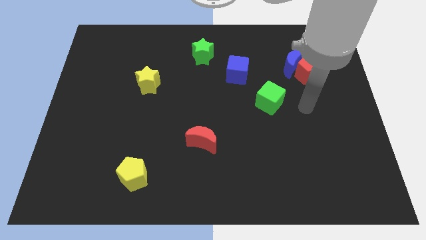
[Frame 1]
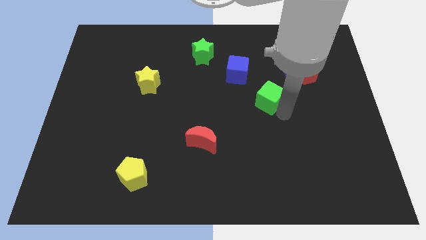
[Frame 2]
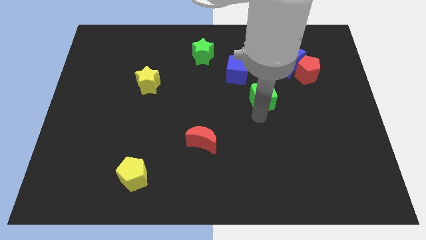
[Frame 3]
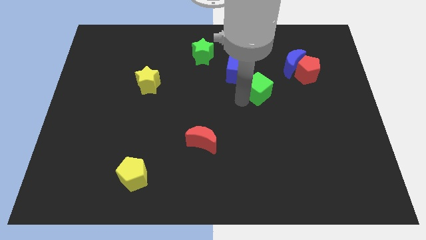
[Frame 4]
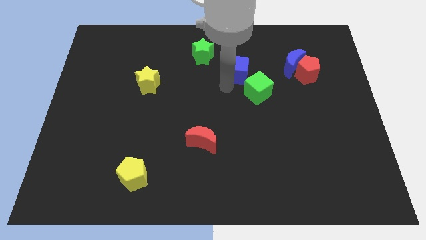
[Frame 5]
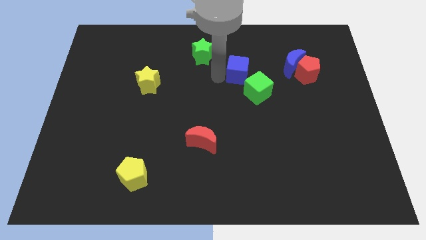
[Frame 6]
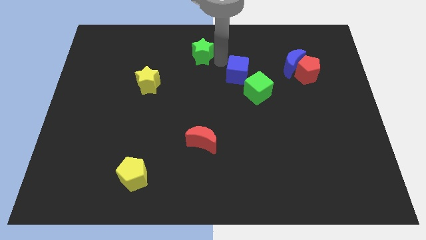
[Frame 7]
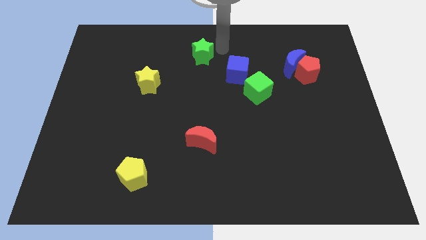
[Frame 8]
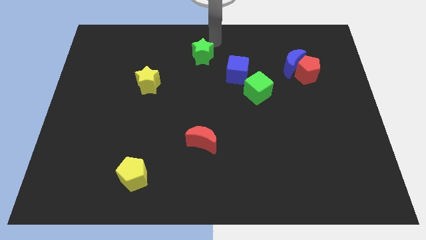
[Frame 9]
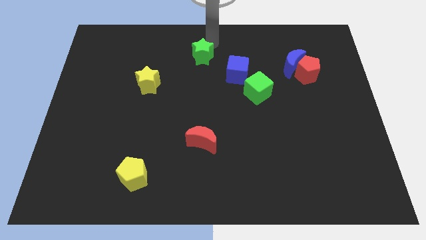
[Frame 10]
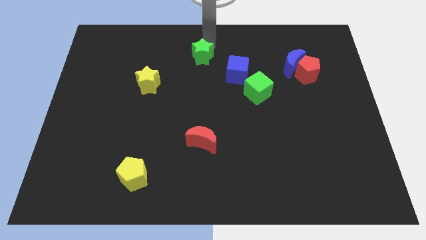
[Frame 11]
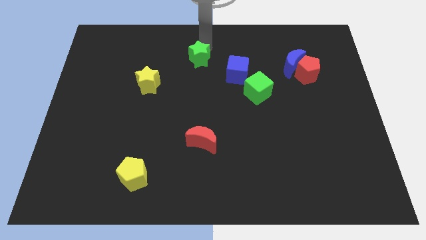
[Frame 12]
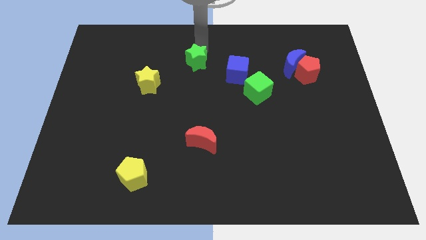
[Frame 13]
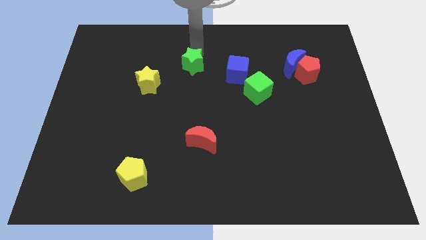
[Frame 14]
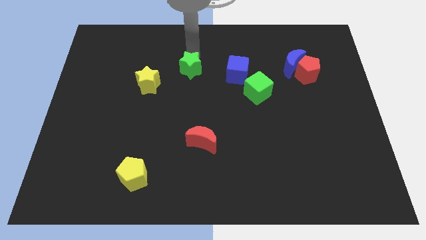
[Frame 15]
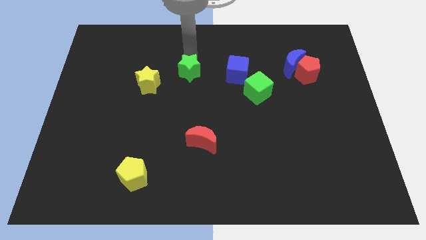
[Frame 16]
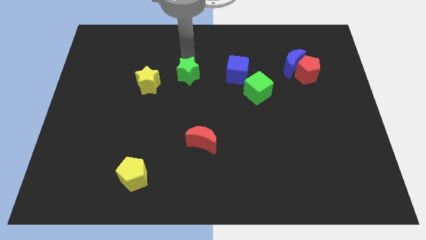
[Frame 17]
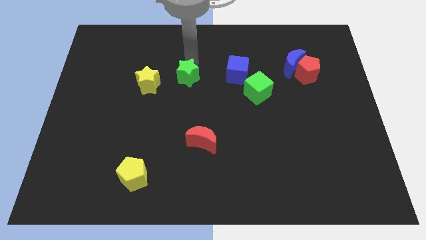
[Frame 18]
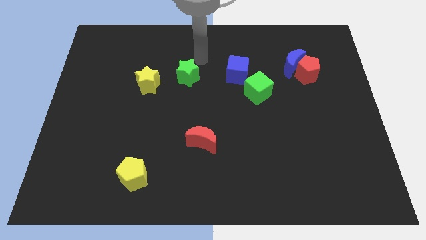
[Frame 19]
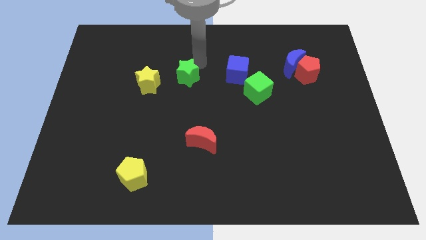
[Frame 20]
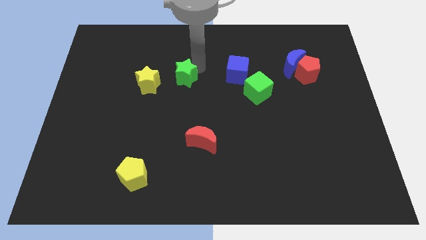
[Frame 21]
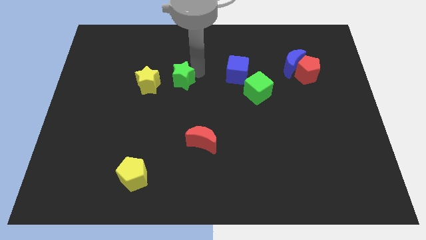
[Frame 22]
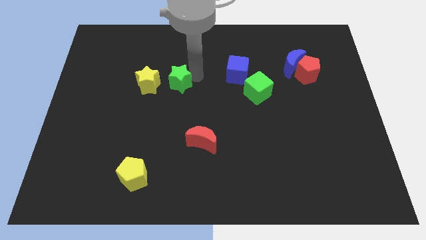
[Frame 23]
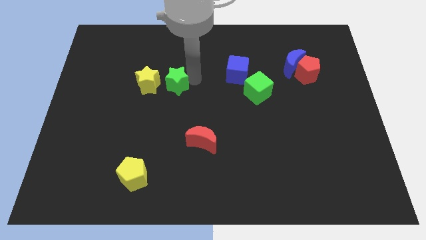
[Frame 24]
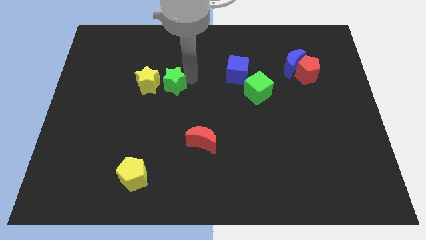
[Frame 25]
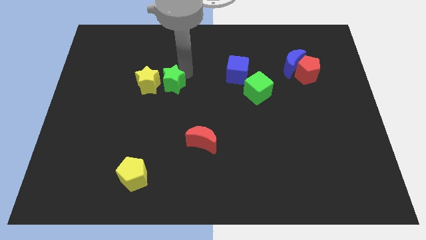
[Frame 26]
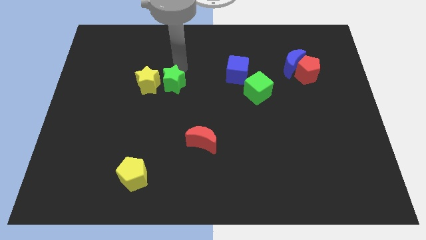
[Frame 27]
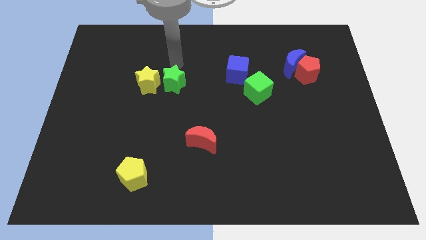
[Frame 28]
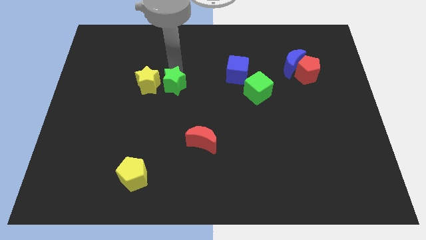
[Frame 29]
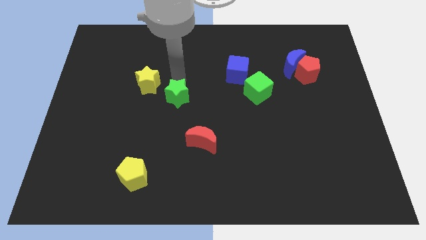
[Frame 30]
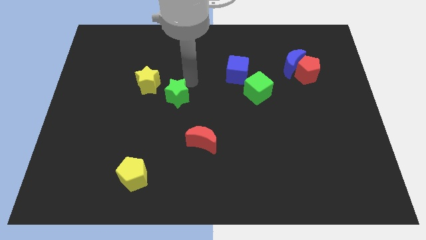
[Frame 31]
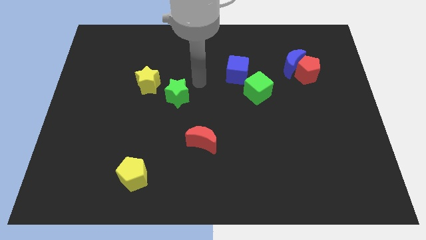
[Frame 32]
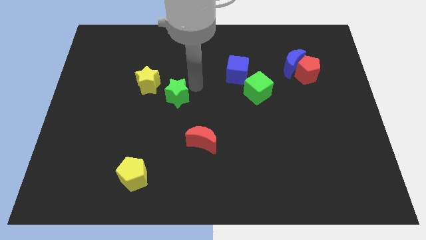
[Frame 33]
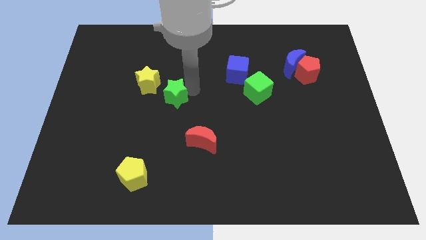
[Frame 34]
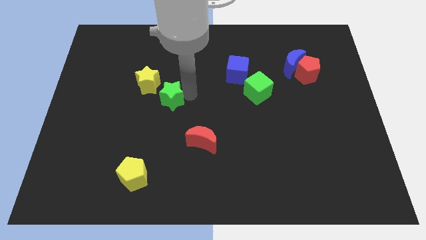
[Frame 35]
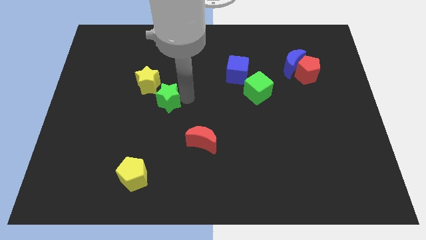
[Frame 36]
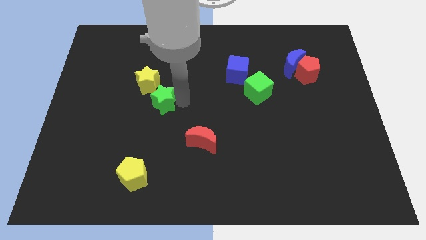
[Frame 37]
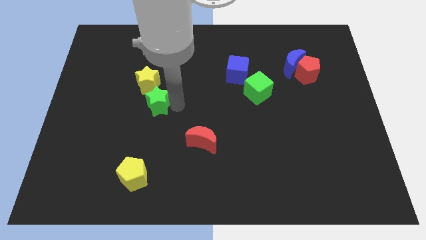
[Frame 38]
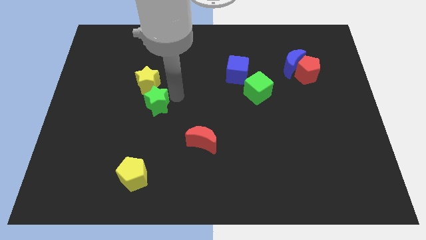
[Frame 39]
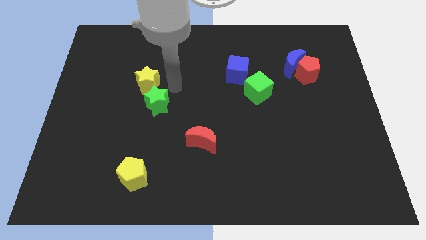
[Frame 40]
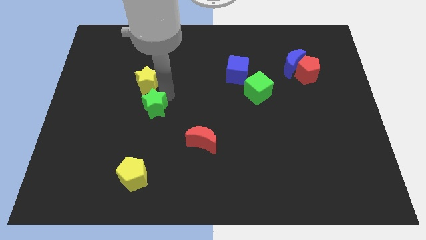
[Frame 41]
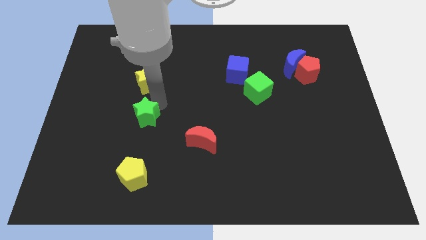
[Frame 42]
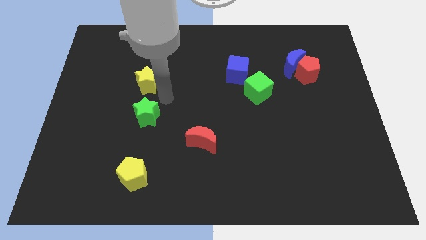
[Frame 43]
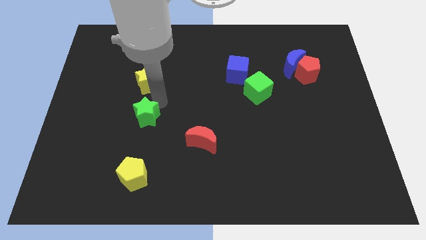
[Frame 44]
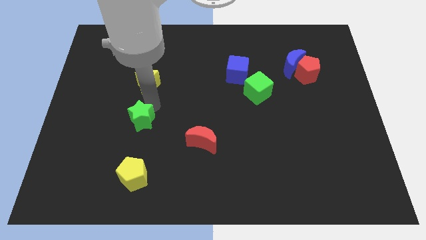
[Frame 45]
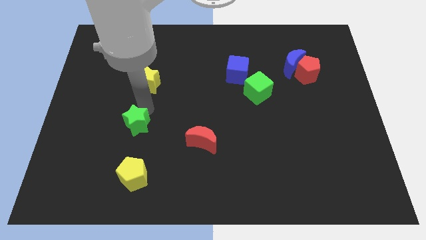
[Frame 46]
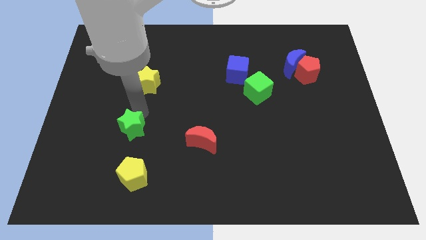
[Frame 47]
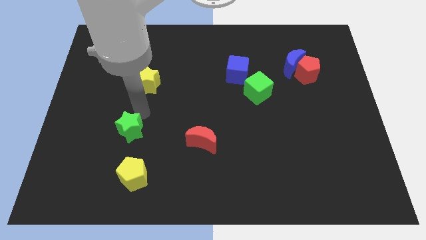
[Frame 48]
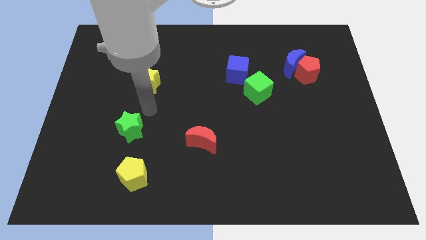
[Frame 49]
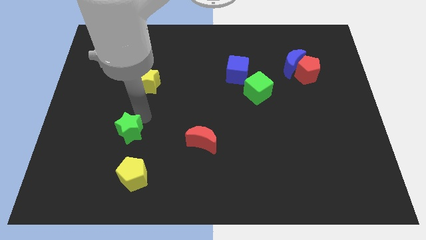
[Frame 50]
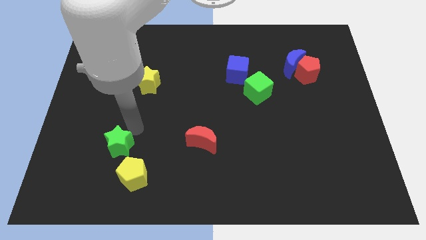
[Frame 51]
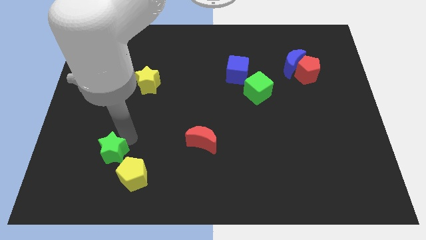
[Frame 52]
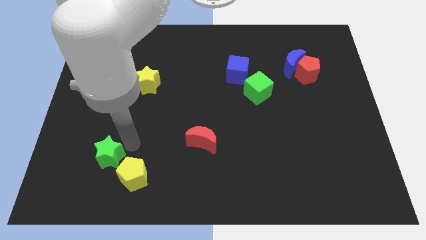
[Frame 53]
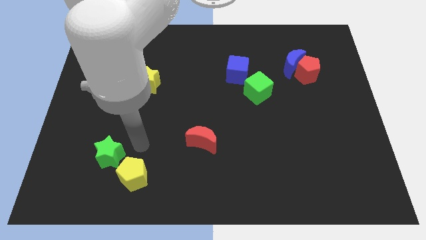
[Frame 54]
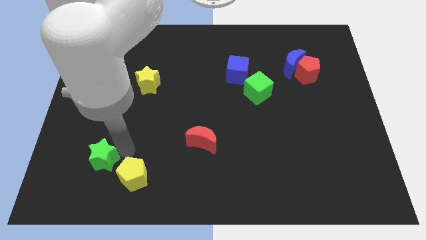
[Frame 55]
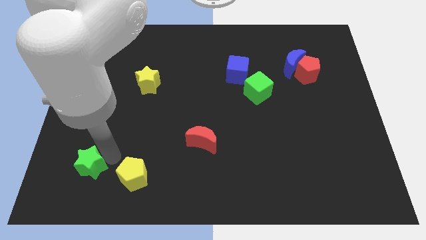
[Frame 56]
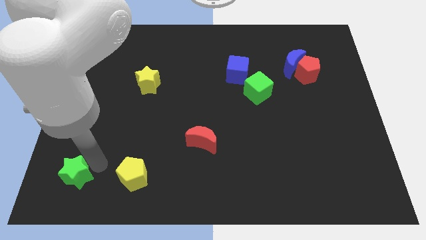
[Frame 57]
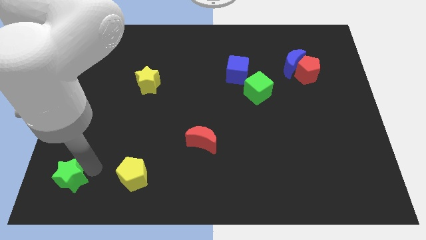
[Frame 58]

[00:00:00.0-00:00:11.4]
put the green star to the bottom left corner
